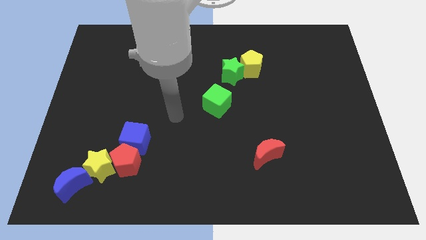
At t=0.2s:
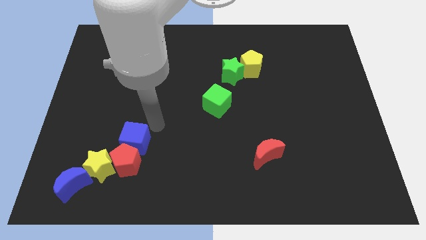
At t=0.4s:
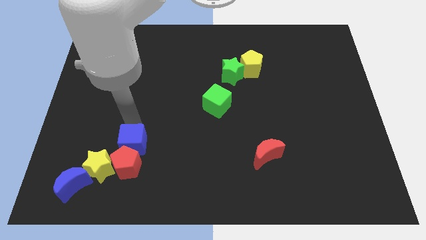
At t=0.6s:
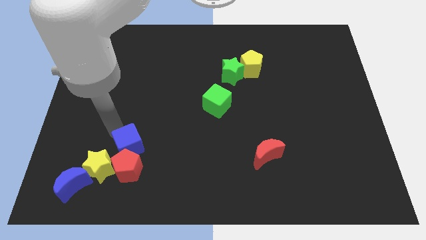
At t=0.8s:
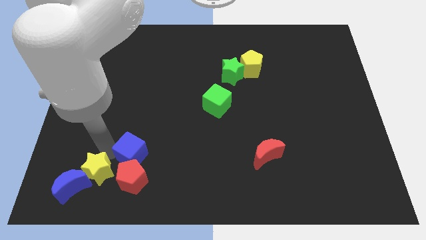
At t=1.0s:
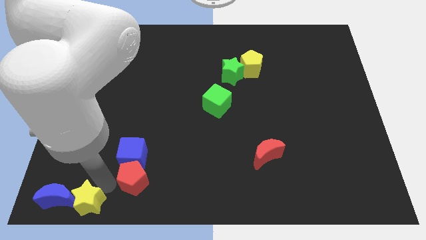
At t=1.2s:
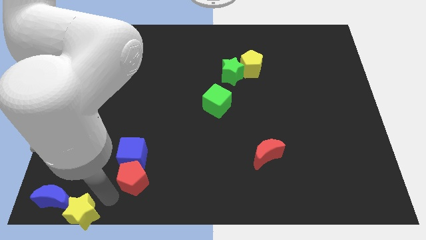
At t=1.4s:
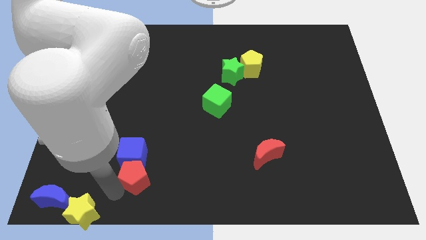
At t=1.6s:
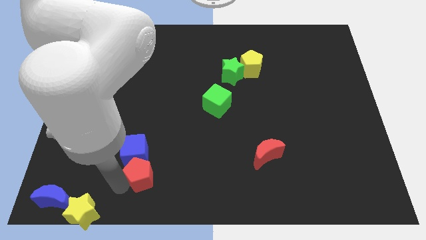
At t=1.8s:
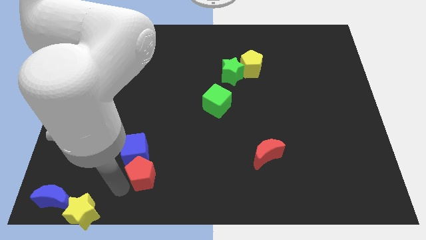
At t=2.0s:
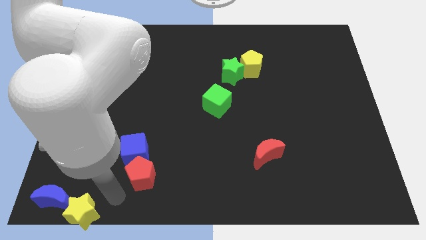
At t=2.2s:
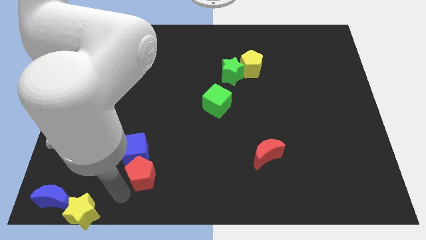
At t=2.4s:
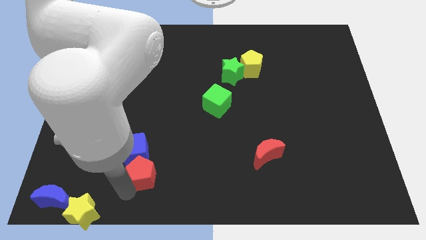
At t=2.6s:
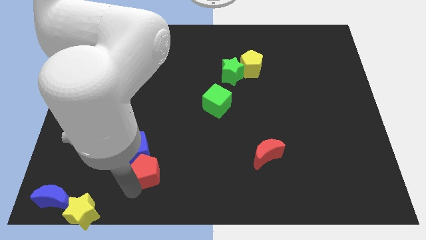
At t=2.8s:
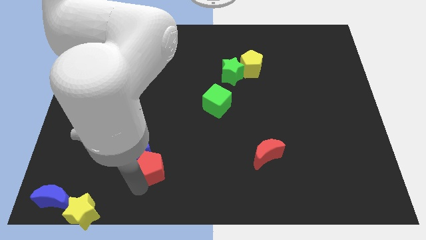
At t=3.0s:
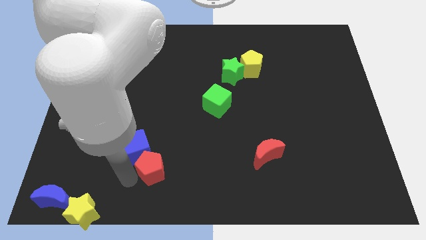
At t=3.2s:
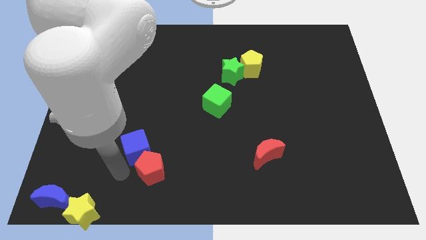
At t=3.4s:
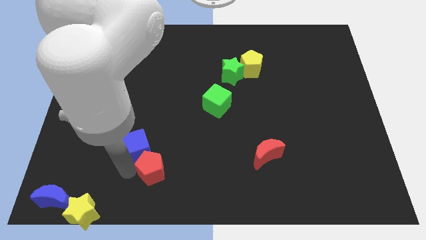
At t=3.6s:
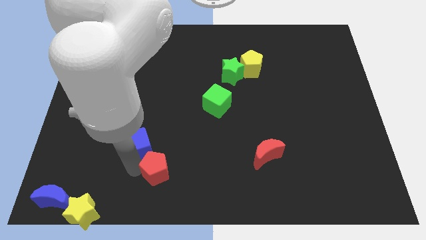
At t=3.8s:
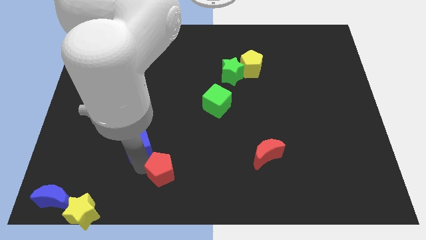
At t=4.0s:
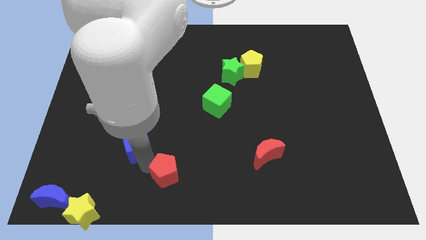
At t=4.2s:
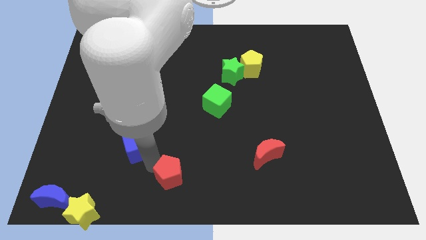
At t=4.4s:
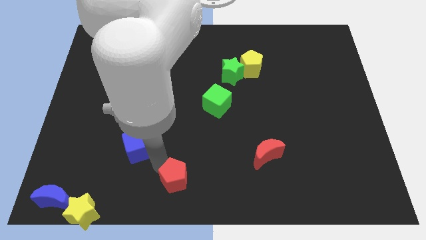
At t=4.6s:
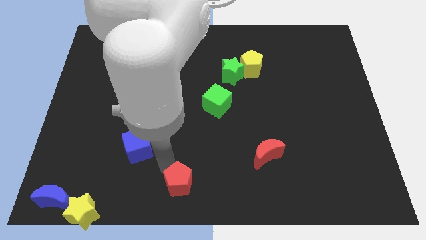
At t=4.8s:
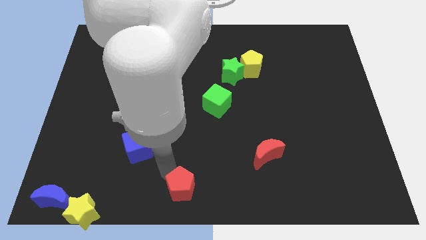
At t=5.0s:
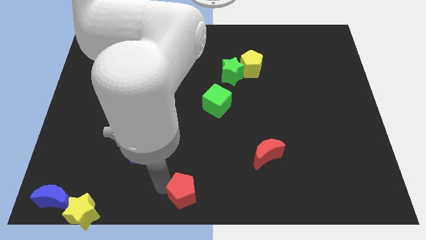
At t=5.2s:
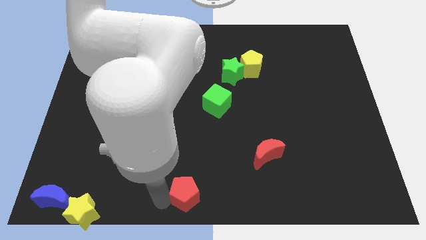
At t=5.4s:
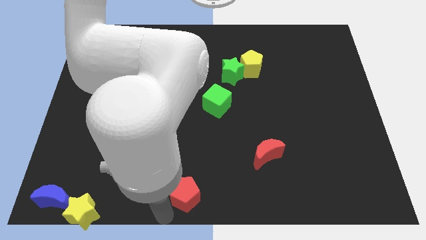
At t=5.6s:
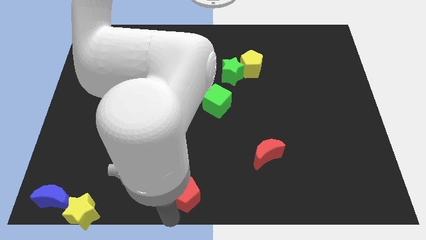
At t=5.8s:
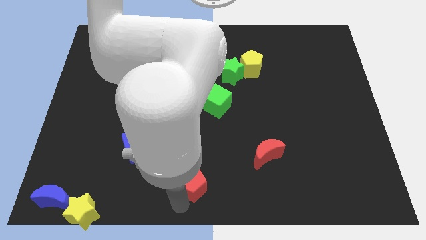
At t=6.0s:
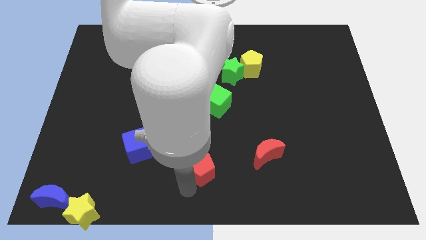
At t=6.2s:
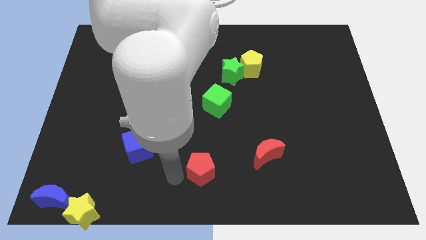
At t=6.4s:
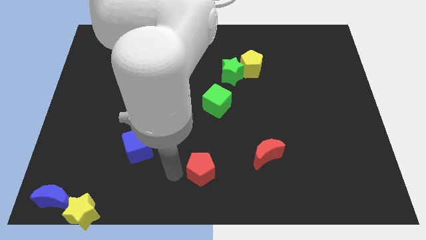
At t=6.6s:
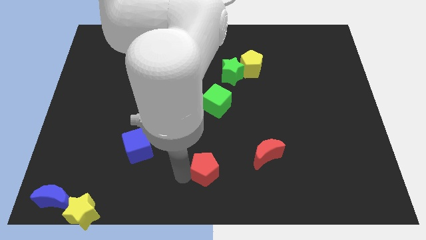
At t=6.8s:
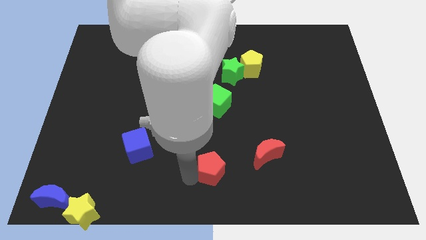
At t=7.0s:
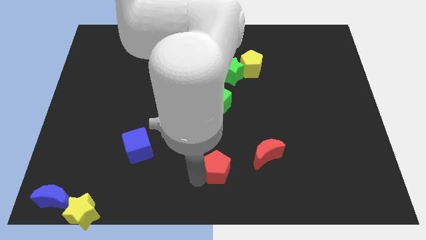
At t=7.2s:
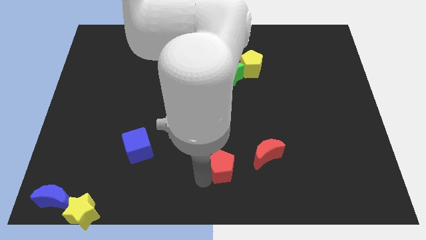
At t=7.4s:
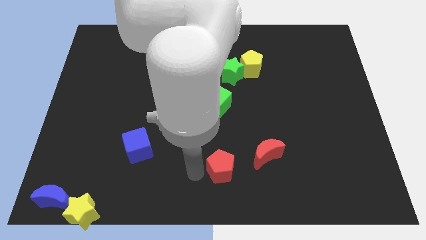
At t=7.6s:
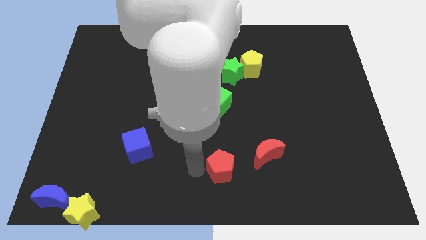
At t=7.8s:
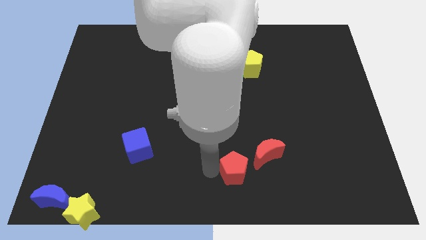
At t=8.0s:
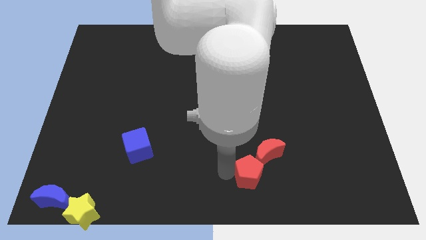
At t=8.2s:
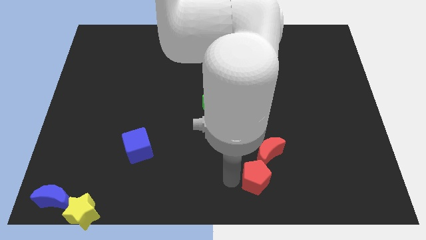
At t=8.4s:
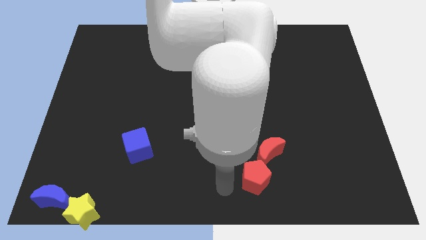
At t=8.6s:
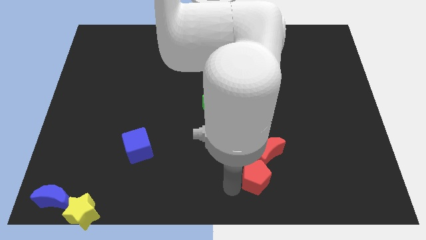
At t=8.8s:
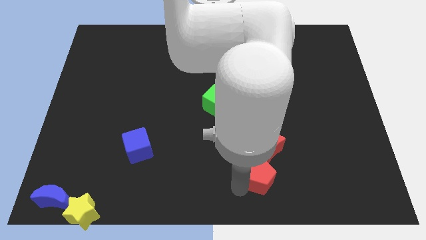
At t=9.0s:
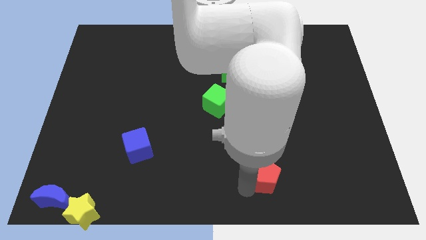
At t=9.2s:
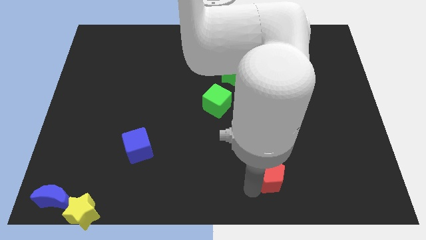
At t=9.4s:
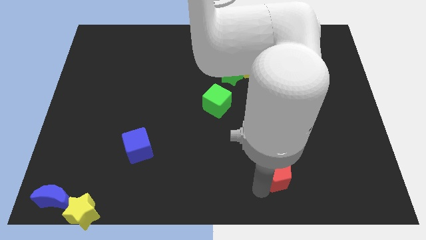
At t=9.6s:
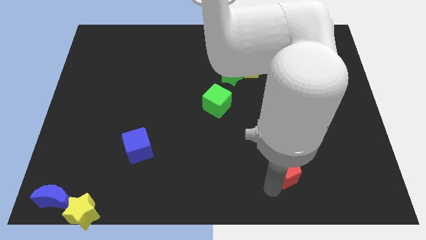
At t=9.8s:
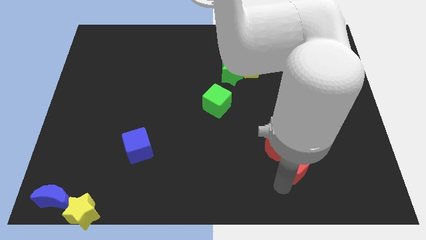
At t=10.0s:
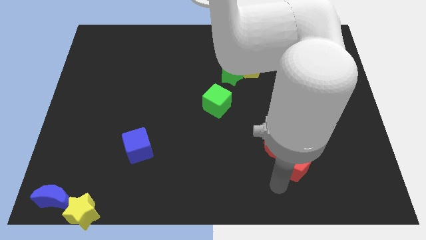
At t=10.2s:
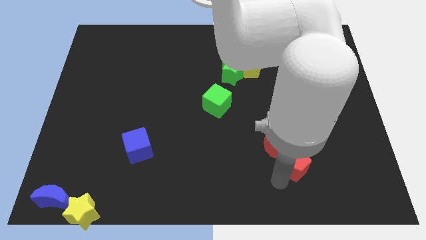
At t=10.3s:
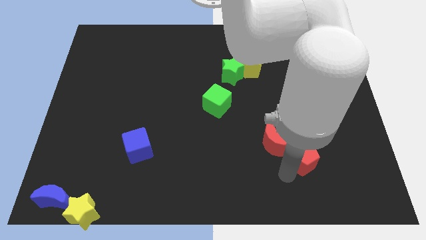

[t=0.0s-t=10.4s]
move the red pentagon right of the red moon

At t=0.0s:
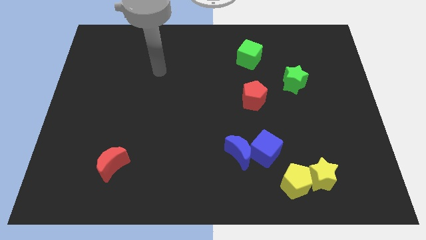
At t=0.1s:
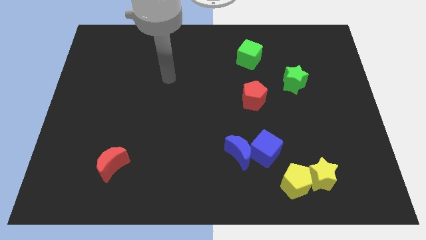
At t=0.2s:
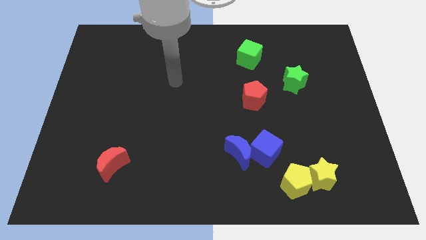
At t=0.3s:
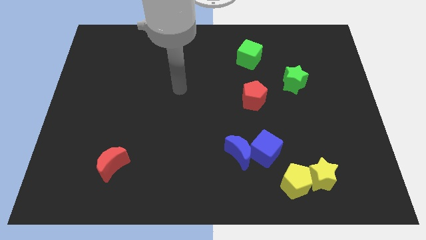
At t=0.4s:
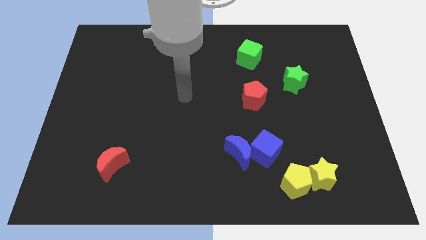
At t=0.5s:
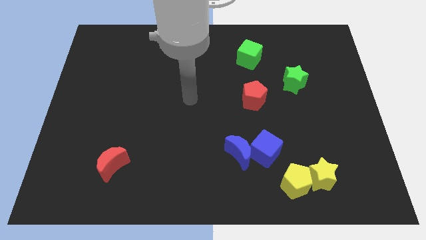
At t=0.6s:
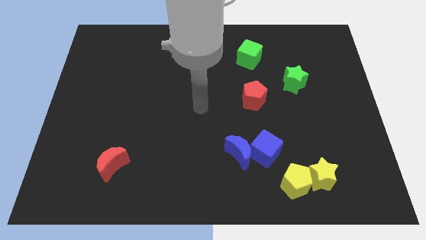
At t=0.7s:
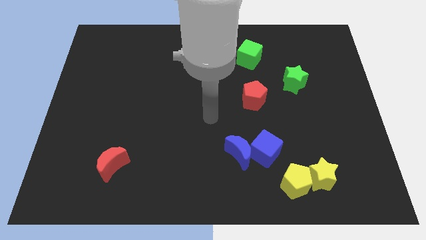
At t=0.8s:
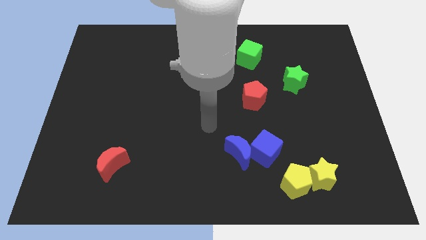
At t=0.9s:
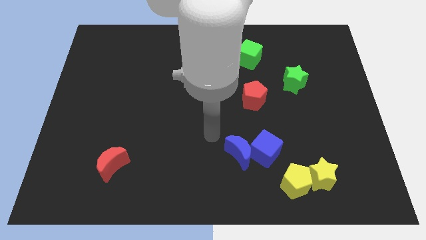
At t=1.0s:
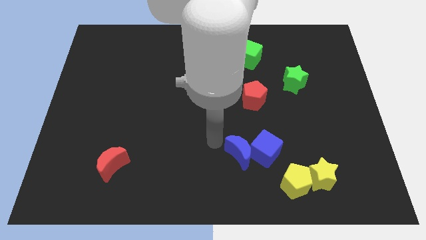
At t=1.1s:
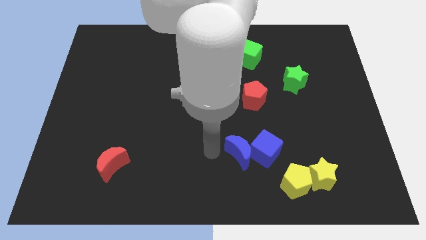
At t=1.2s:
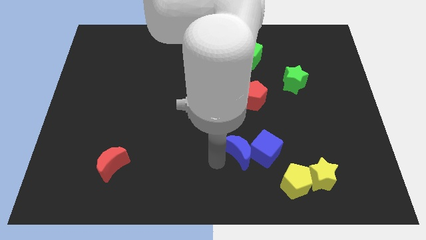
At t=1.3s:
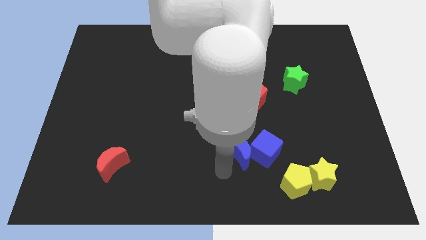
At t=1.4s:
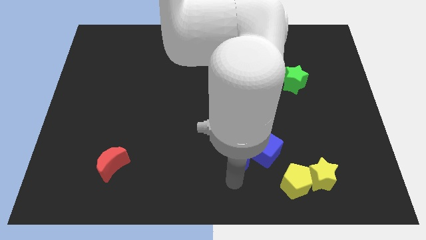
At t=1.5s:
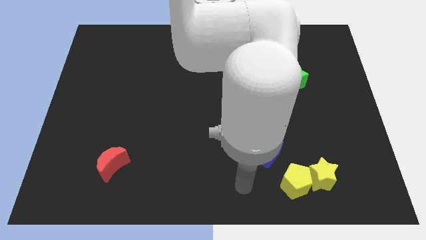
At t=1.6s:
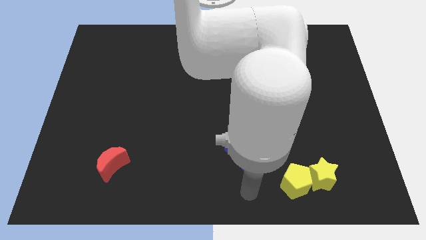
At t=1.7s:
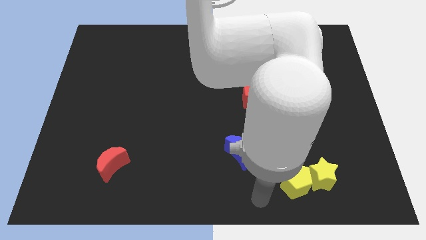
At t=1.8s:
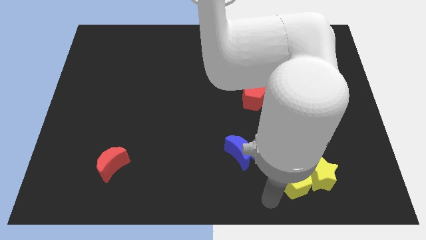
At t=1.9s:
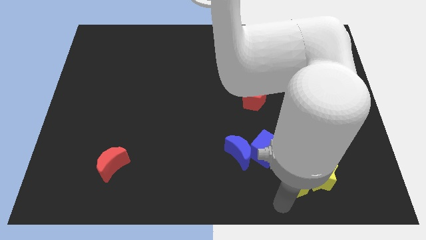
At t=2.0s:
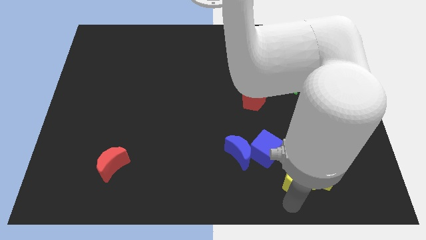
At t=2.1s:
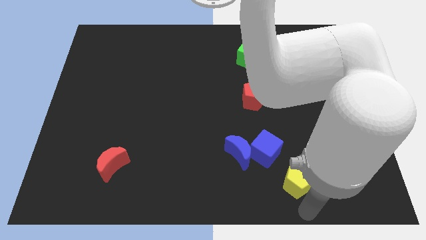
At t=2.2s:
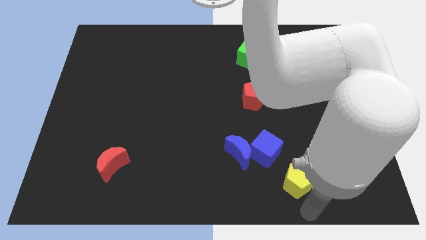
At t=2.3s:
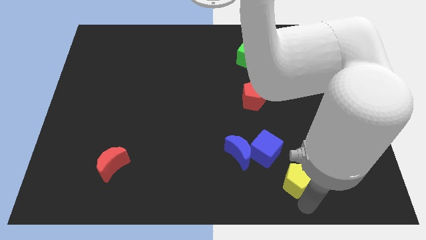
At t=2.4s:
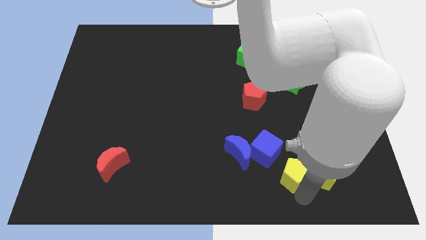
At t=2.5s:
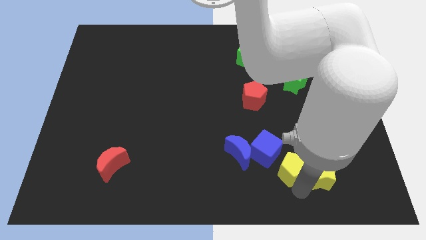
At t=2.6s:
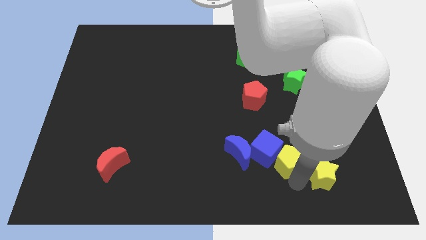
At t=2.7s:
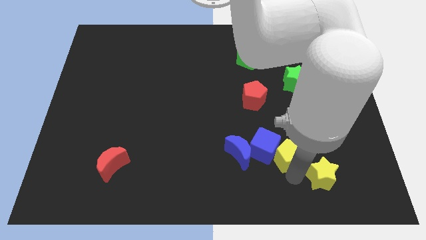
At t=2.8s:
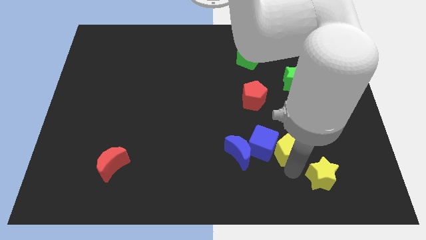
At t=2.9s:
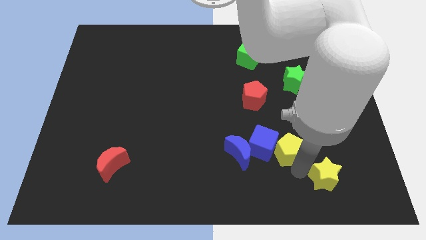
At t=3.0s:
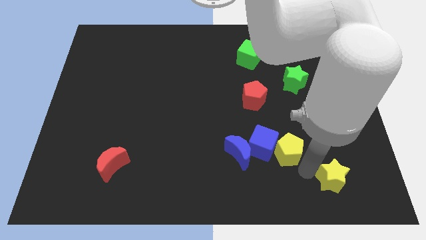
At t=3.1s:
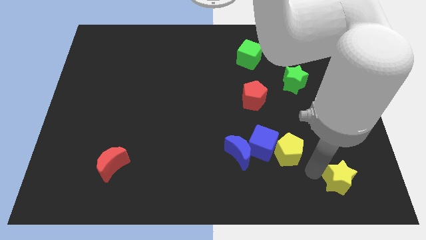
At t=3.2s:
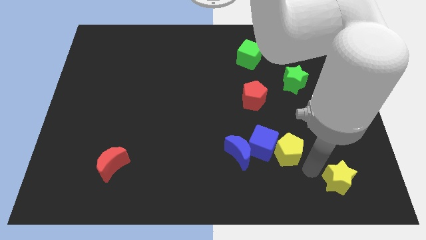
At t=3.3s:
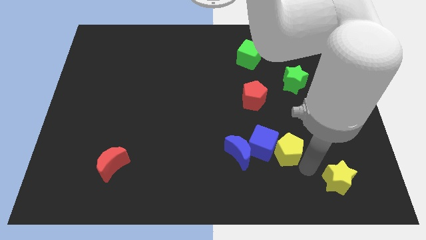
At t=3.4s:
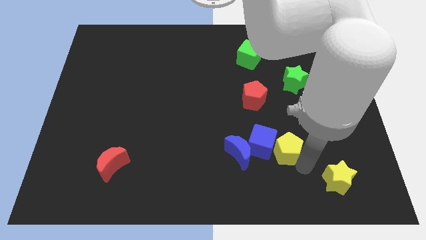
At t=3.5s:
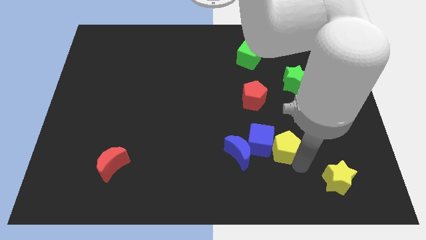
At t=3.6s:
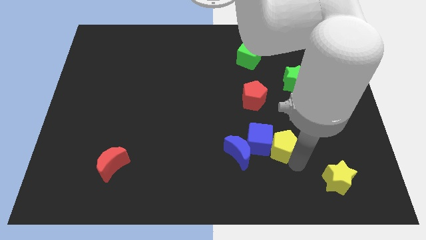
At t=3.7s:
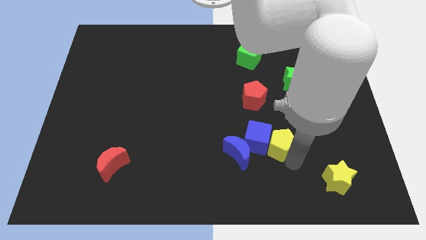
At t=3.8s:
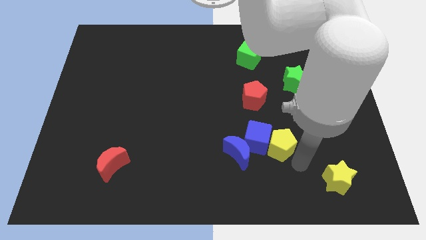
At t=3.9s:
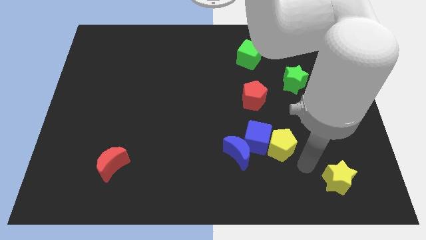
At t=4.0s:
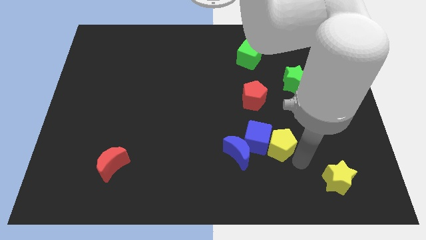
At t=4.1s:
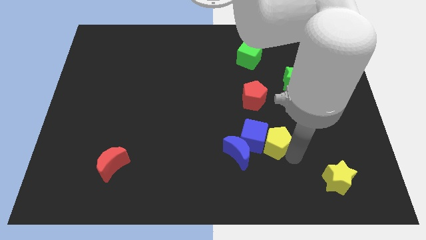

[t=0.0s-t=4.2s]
move the yellow pentagon to the top right of the blue moon
